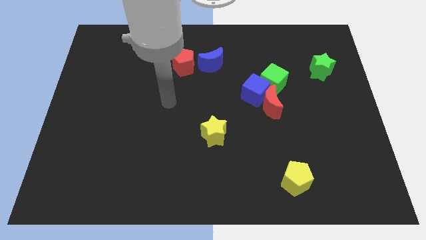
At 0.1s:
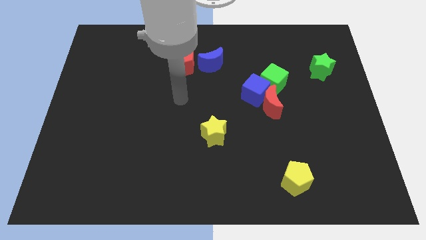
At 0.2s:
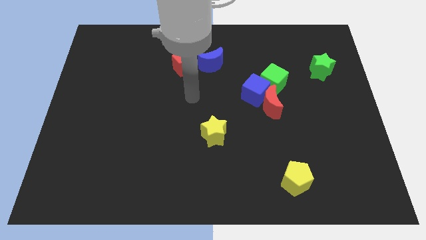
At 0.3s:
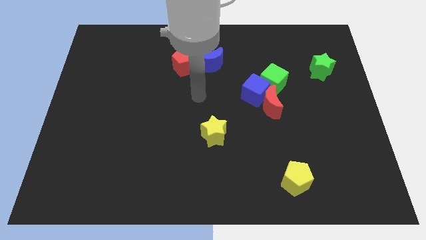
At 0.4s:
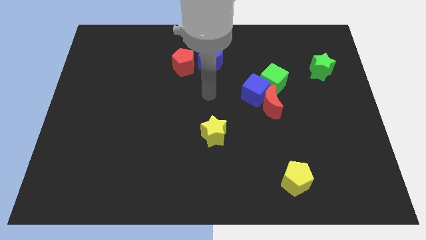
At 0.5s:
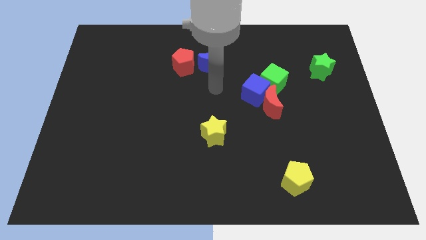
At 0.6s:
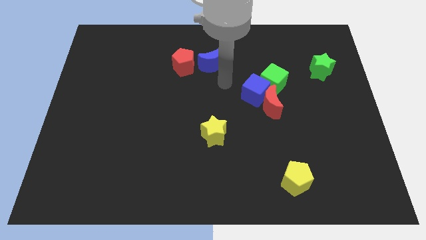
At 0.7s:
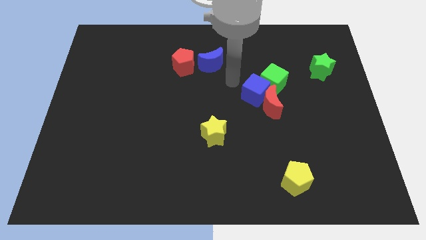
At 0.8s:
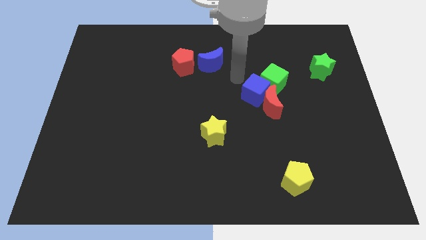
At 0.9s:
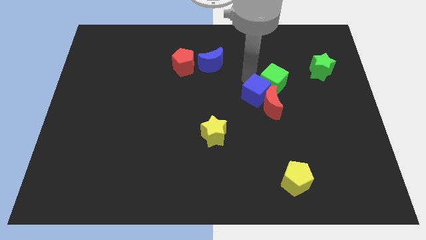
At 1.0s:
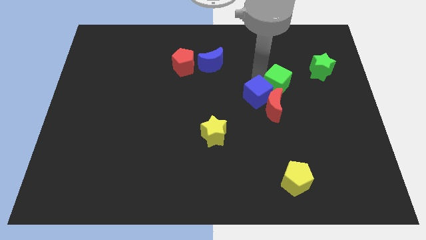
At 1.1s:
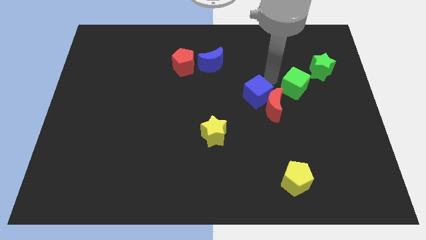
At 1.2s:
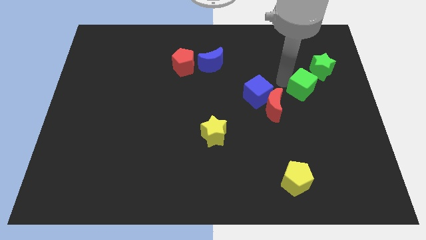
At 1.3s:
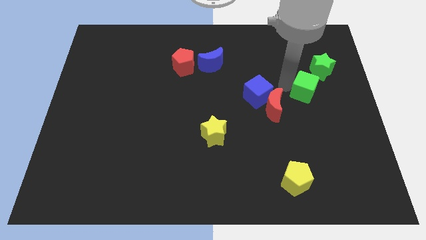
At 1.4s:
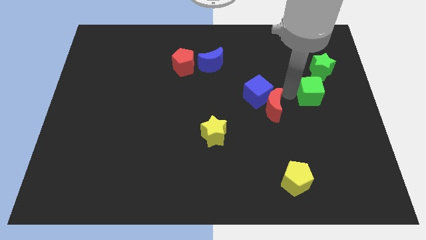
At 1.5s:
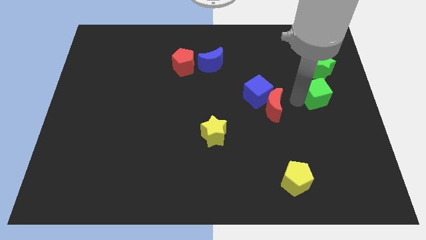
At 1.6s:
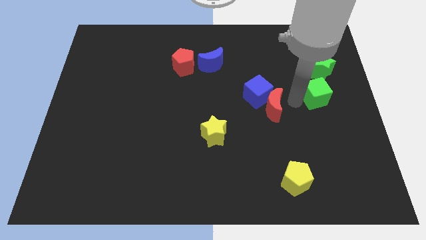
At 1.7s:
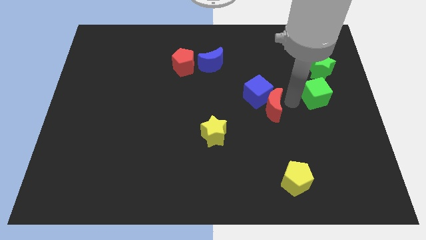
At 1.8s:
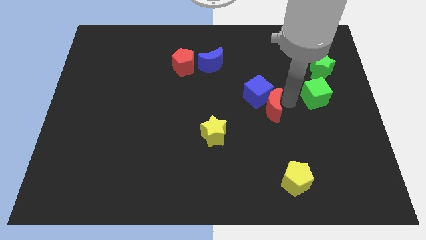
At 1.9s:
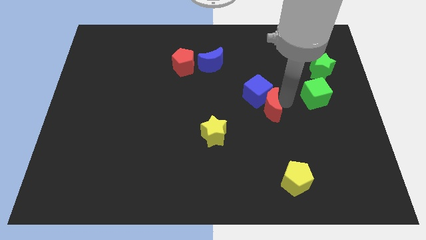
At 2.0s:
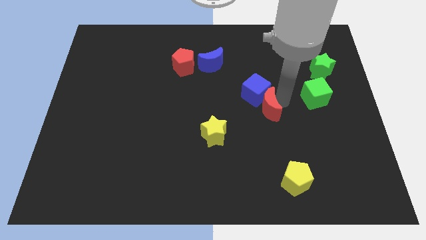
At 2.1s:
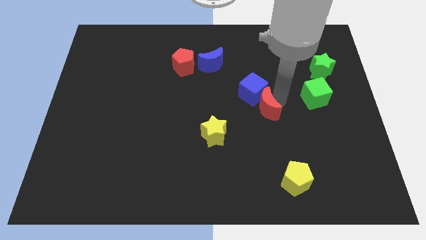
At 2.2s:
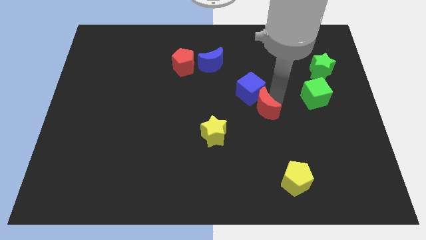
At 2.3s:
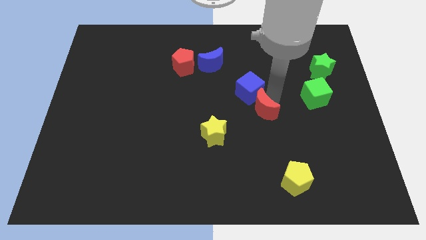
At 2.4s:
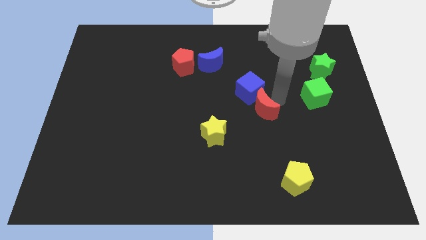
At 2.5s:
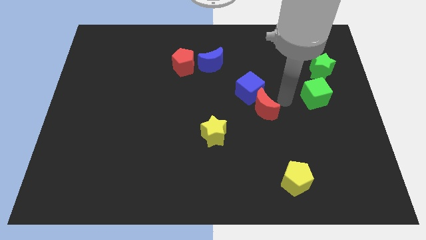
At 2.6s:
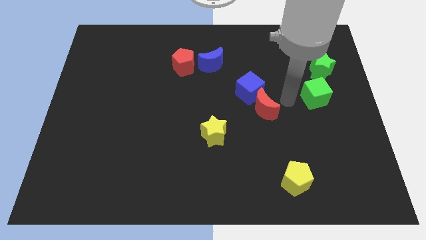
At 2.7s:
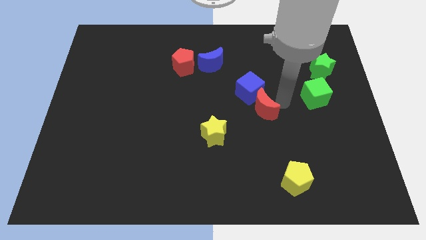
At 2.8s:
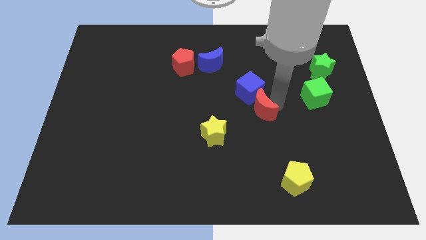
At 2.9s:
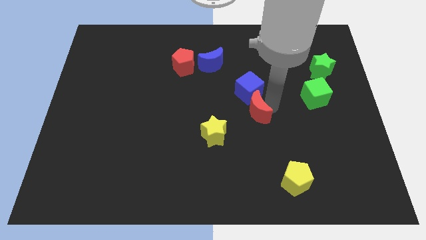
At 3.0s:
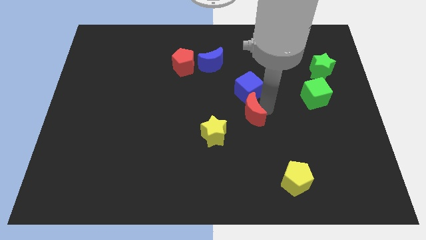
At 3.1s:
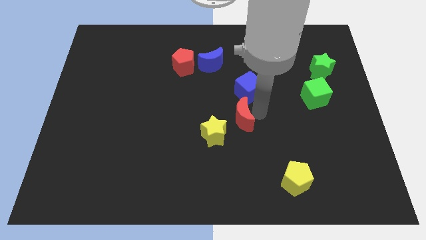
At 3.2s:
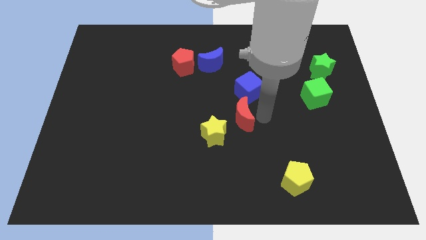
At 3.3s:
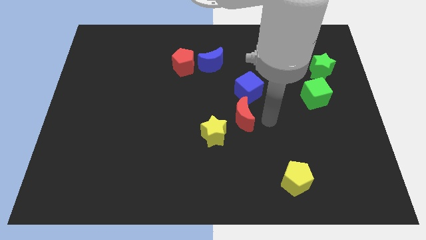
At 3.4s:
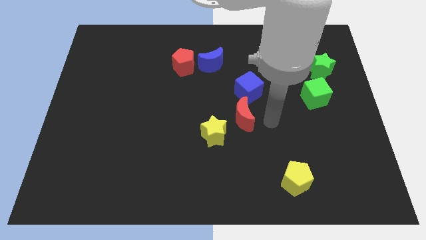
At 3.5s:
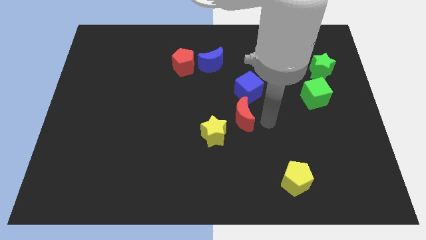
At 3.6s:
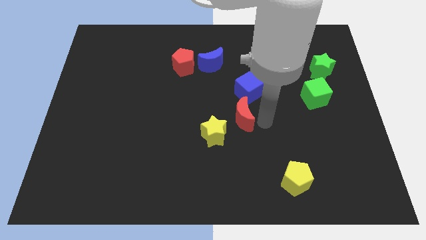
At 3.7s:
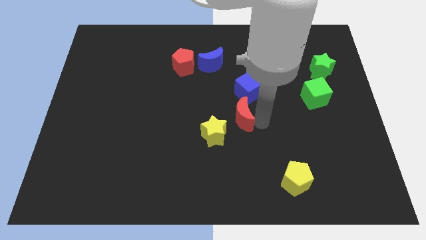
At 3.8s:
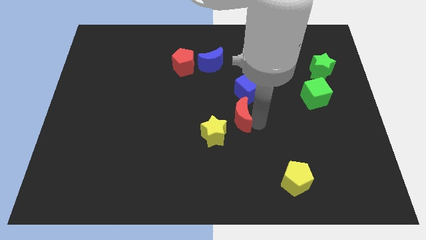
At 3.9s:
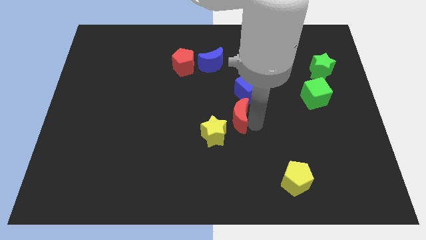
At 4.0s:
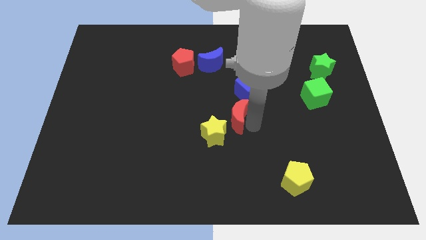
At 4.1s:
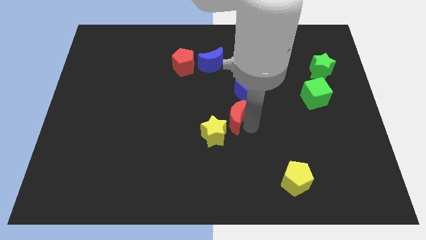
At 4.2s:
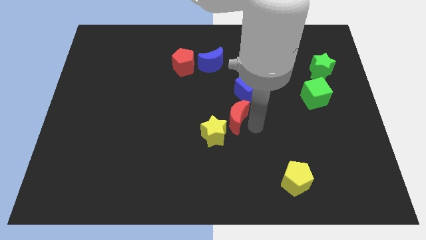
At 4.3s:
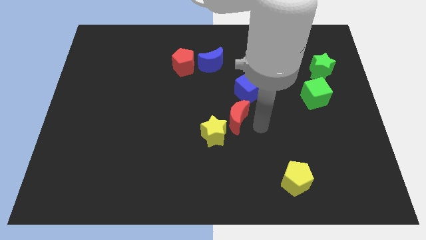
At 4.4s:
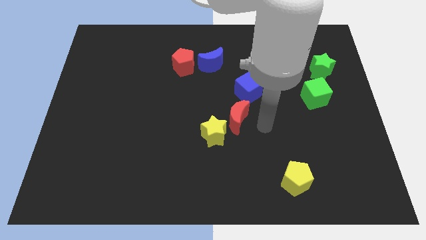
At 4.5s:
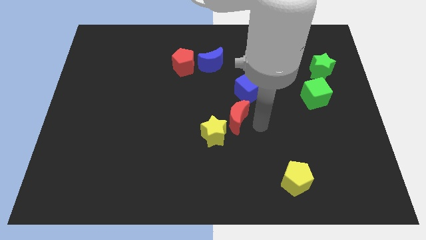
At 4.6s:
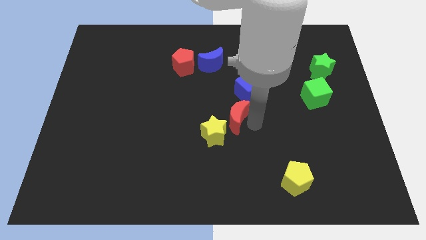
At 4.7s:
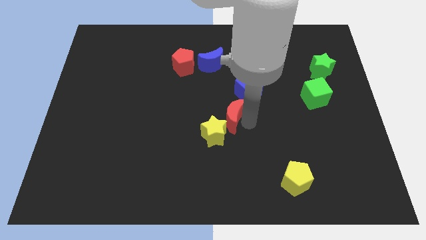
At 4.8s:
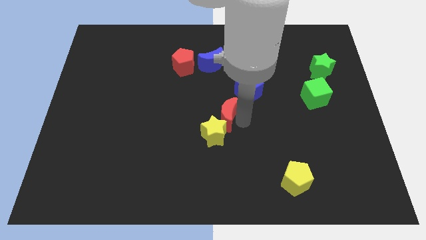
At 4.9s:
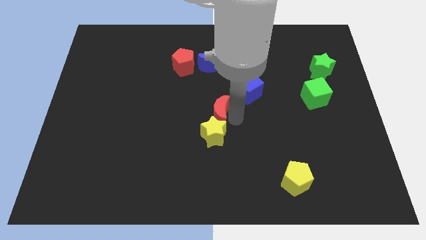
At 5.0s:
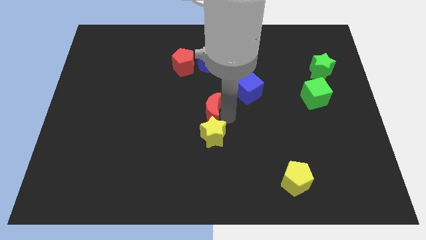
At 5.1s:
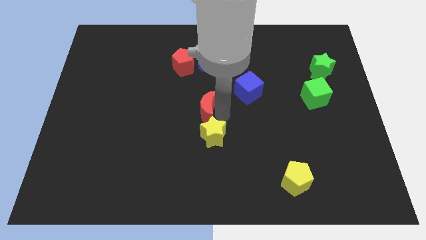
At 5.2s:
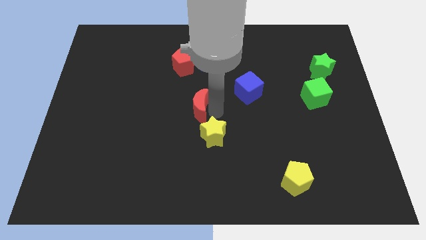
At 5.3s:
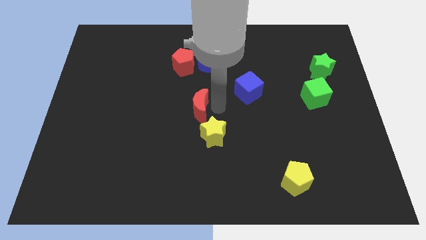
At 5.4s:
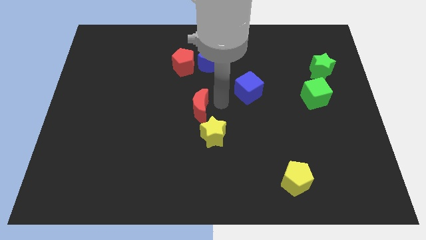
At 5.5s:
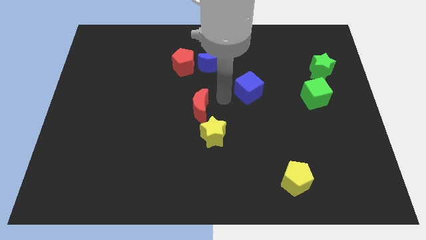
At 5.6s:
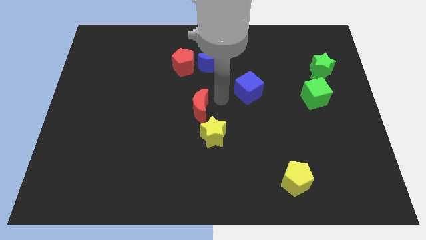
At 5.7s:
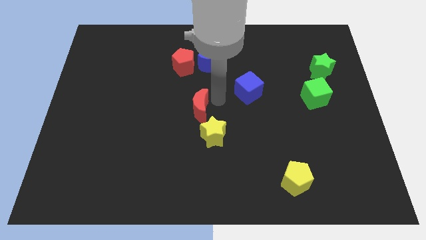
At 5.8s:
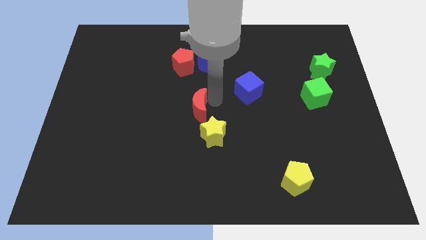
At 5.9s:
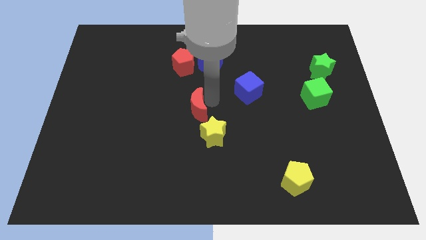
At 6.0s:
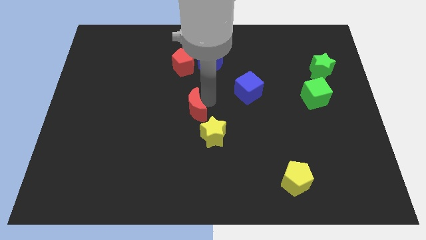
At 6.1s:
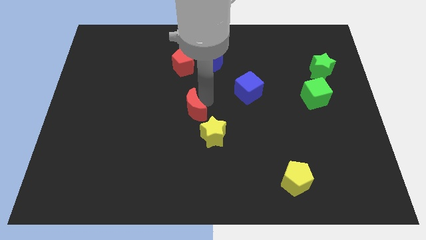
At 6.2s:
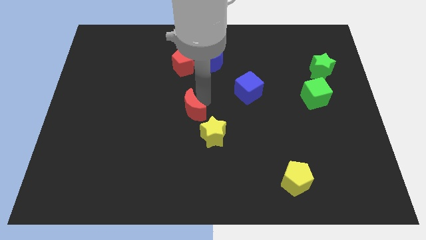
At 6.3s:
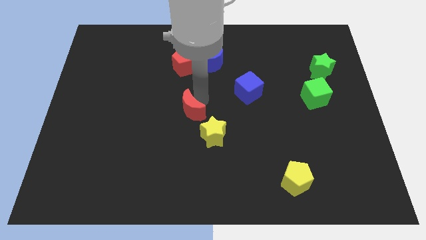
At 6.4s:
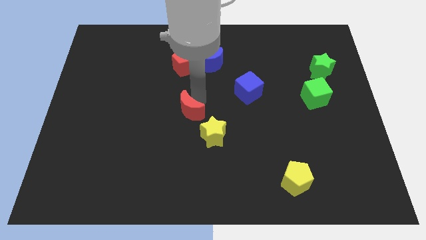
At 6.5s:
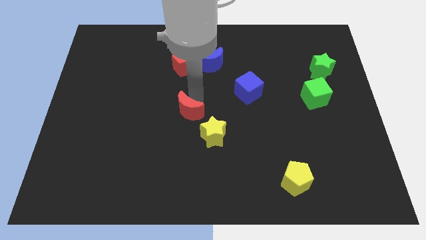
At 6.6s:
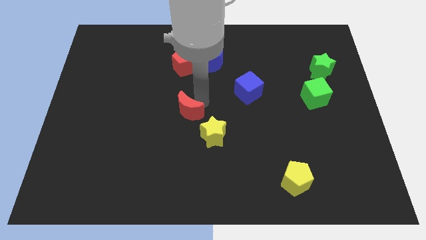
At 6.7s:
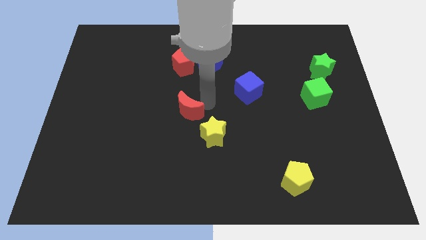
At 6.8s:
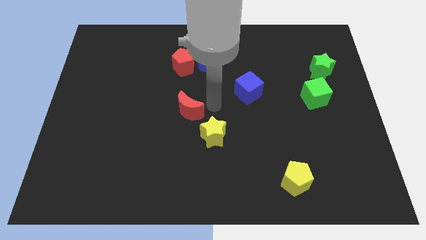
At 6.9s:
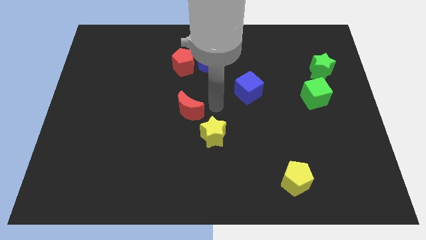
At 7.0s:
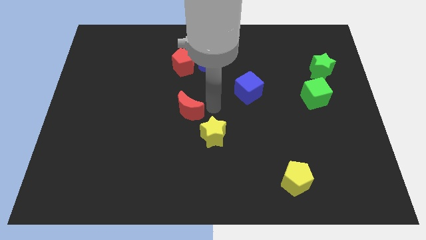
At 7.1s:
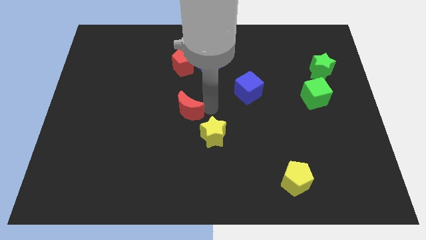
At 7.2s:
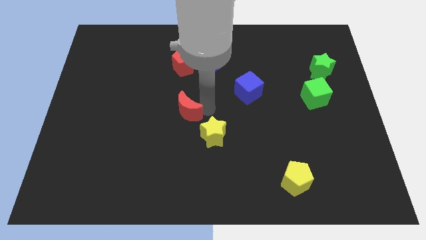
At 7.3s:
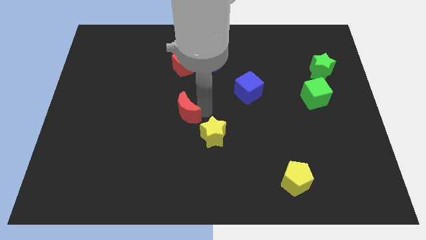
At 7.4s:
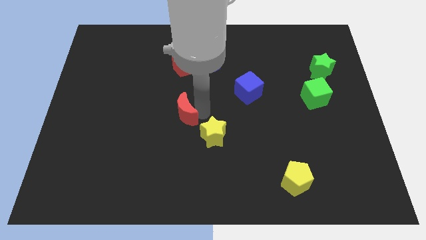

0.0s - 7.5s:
slide the red moon to the left

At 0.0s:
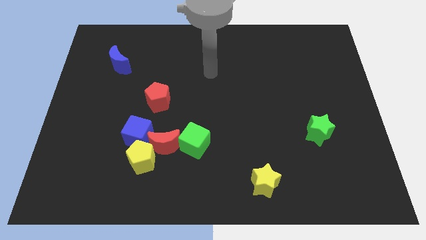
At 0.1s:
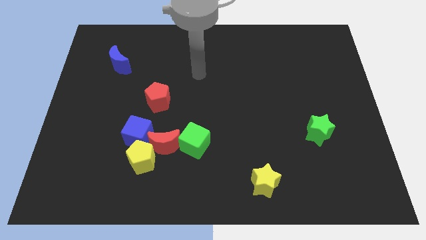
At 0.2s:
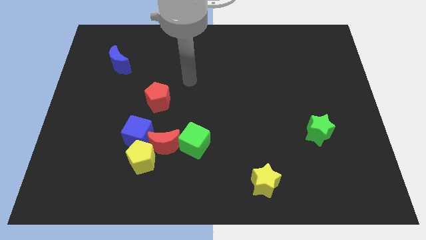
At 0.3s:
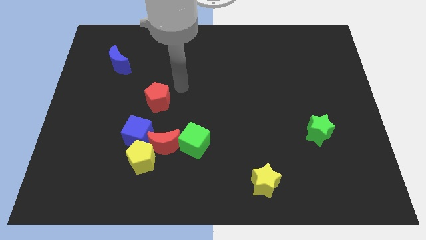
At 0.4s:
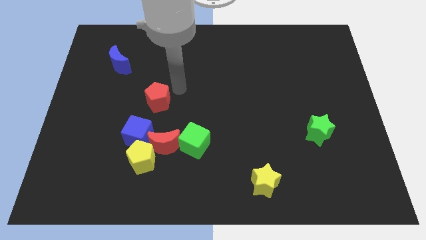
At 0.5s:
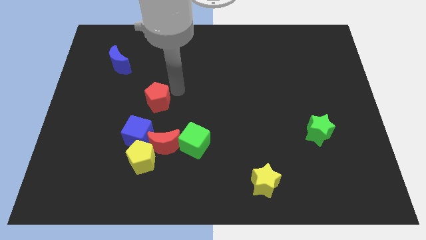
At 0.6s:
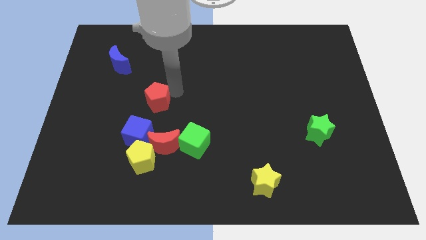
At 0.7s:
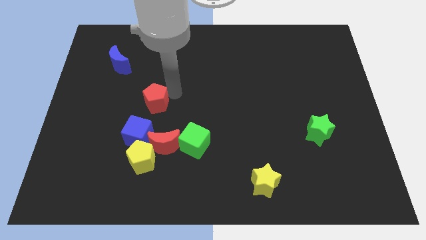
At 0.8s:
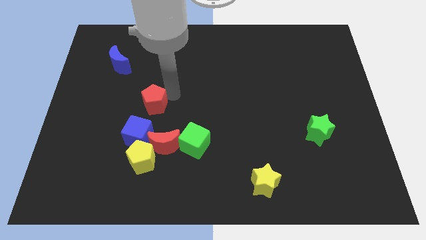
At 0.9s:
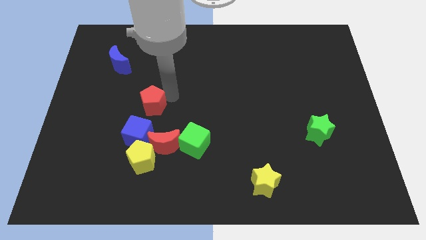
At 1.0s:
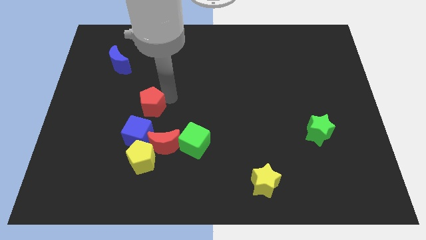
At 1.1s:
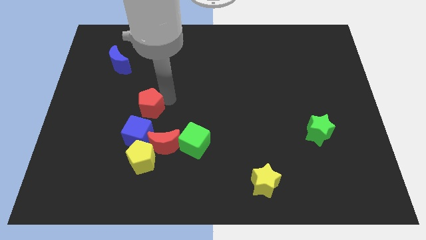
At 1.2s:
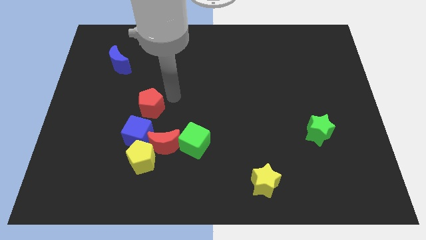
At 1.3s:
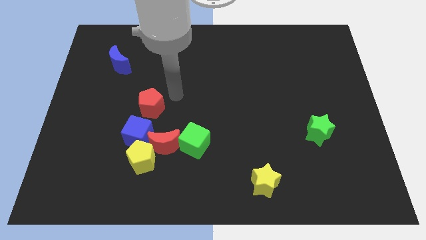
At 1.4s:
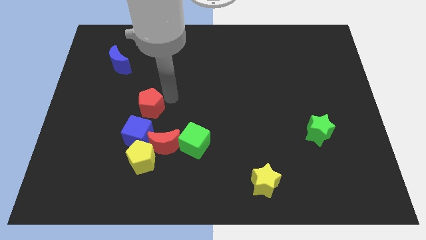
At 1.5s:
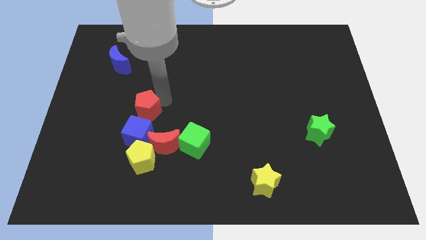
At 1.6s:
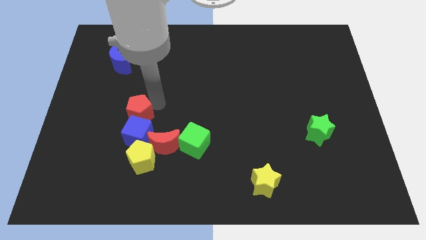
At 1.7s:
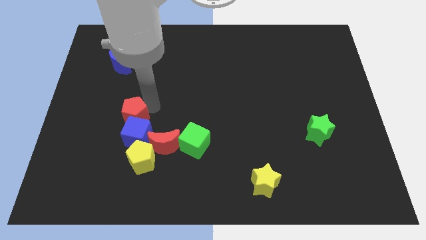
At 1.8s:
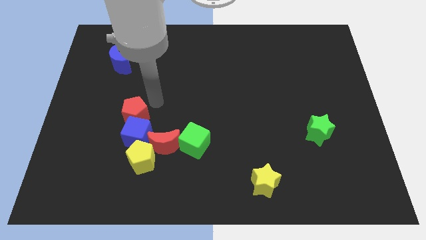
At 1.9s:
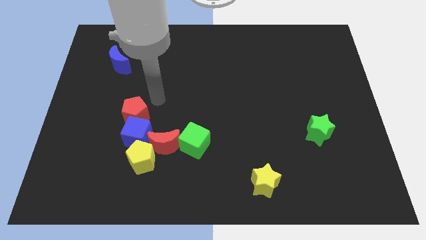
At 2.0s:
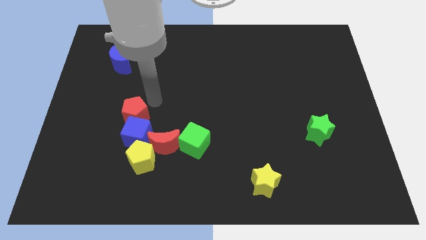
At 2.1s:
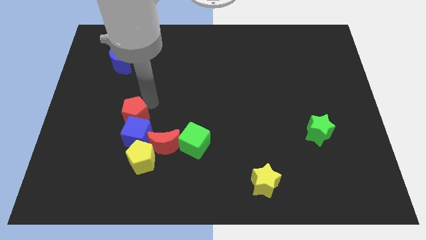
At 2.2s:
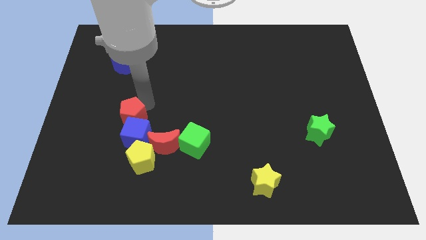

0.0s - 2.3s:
slightly move the red pentagon down and to the left
